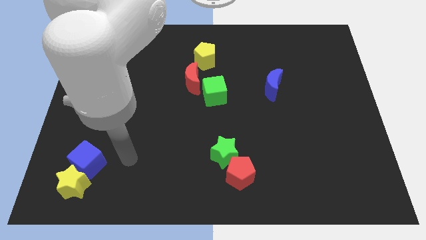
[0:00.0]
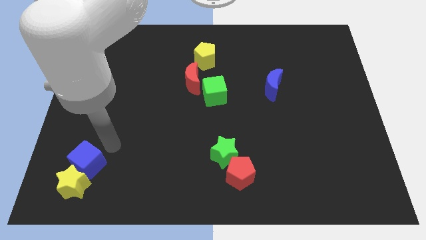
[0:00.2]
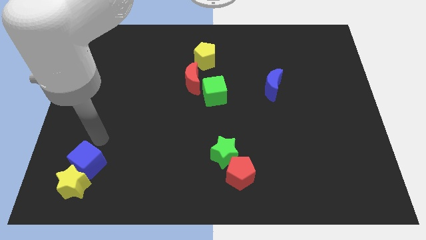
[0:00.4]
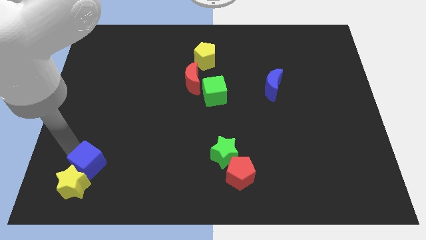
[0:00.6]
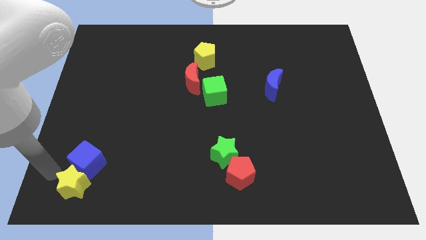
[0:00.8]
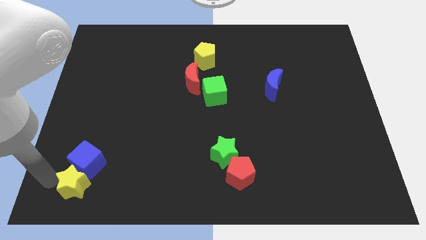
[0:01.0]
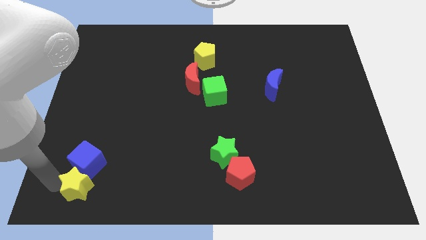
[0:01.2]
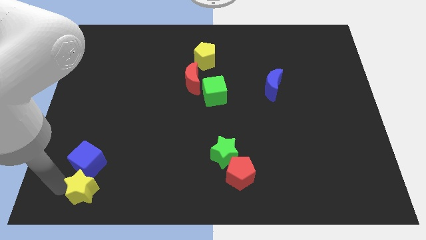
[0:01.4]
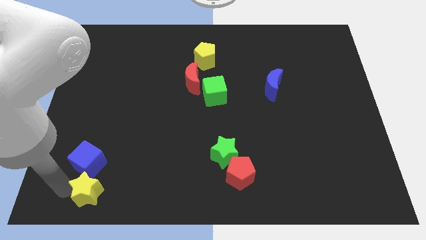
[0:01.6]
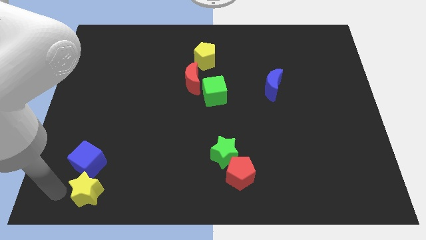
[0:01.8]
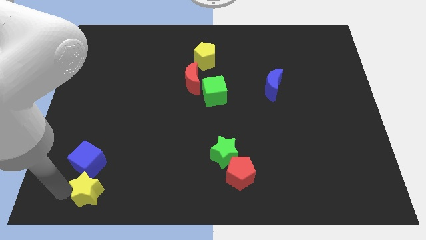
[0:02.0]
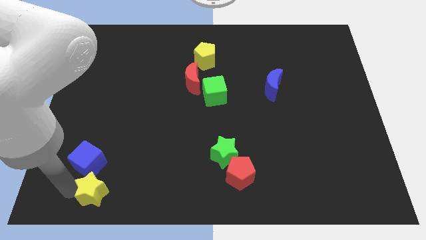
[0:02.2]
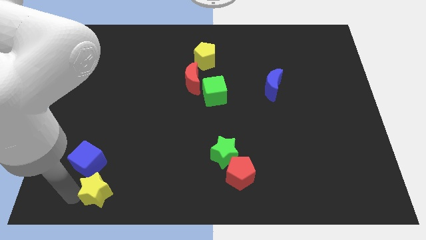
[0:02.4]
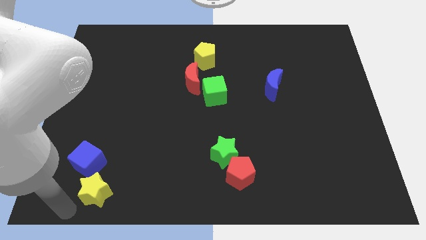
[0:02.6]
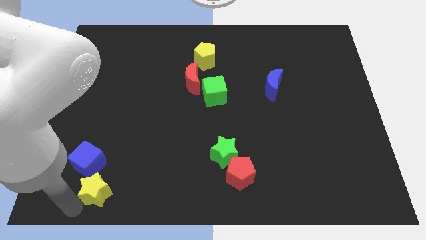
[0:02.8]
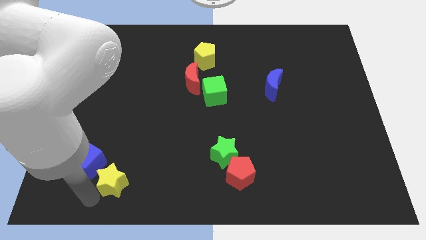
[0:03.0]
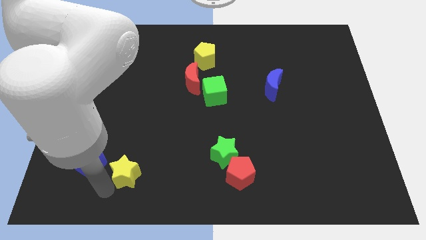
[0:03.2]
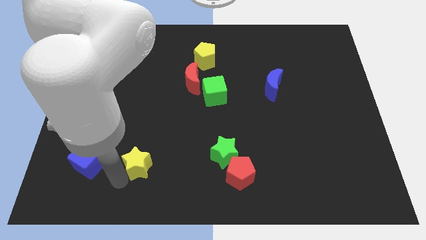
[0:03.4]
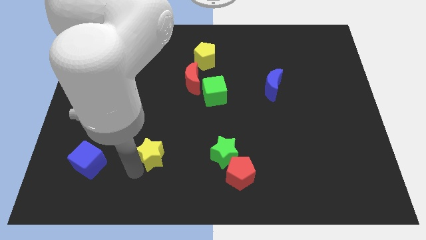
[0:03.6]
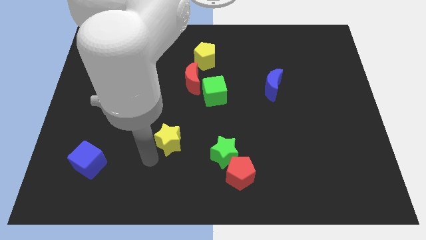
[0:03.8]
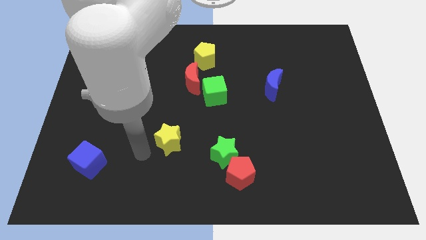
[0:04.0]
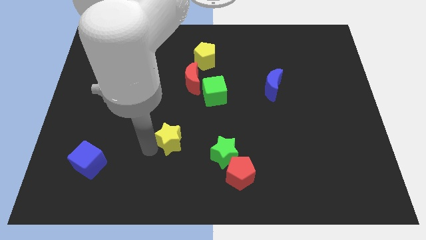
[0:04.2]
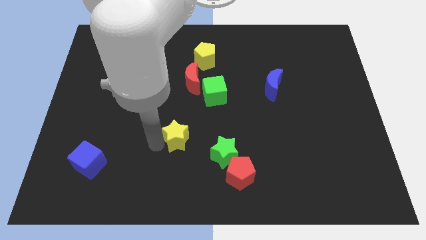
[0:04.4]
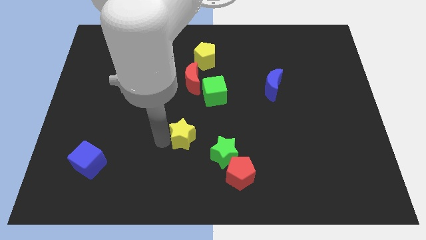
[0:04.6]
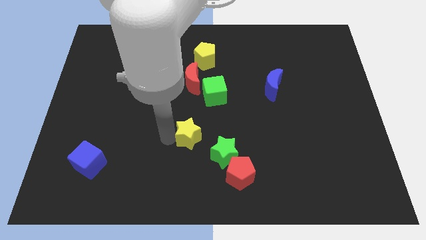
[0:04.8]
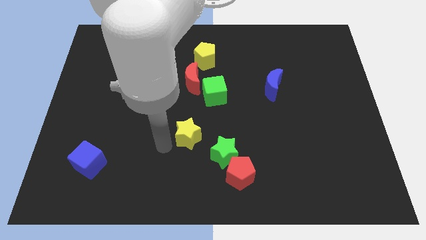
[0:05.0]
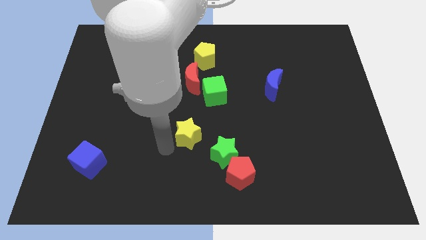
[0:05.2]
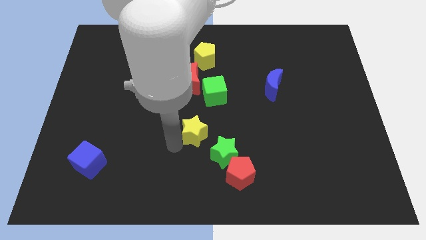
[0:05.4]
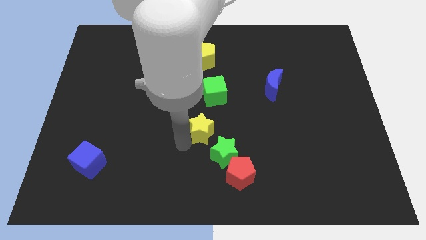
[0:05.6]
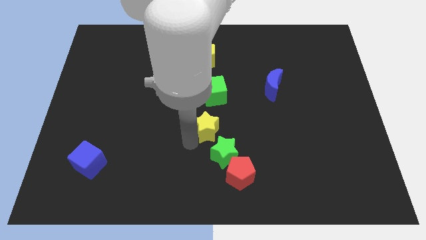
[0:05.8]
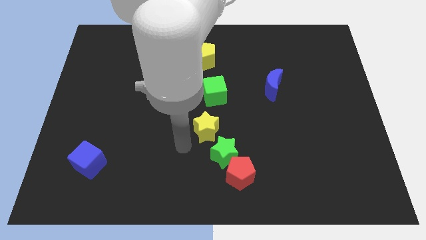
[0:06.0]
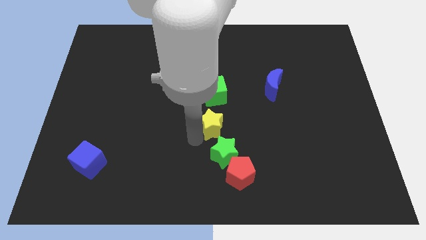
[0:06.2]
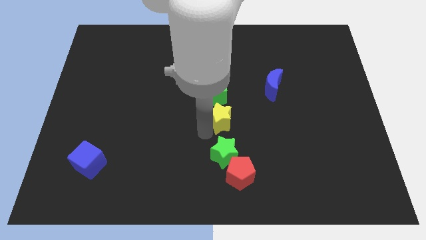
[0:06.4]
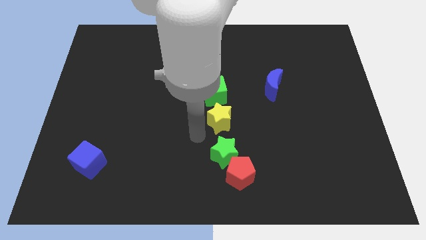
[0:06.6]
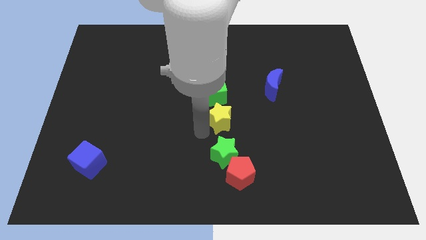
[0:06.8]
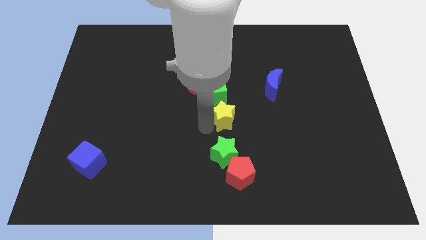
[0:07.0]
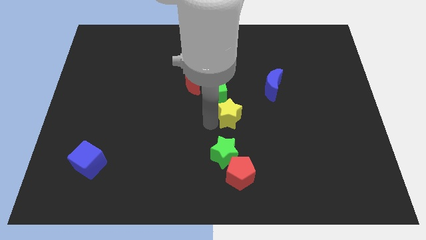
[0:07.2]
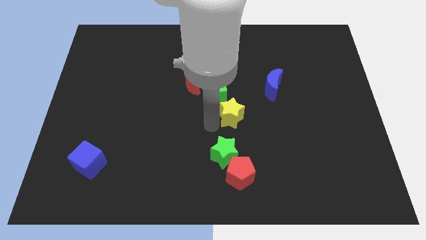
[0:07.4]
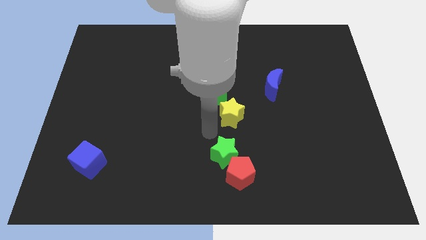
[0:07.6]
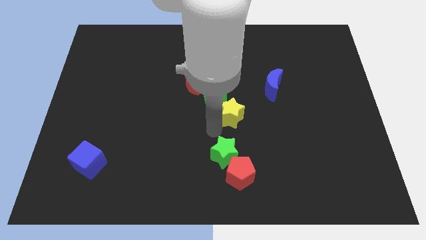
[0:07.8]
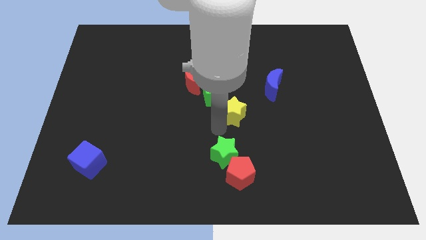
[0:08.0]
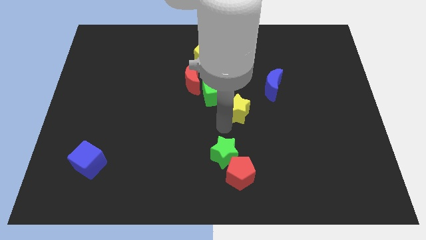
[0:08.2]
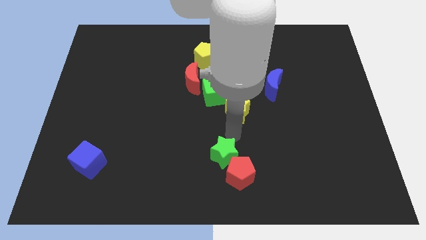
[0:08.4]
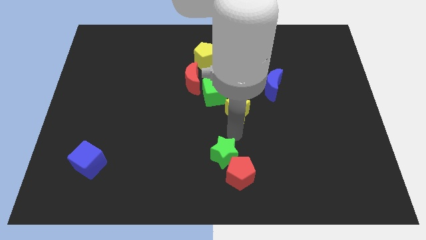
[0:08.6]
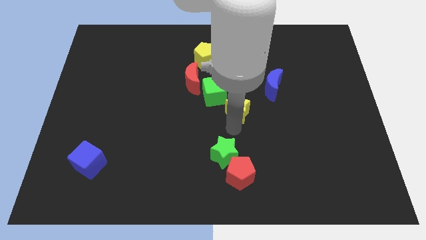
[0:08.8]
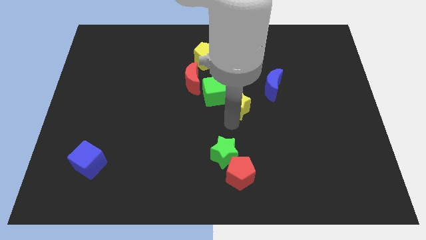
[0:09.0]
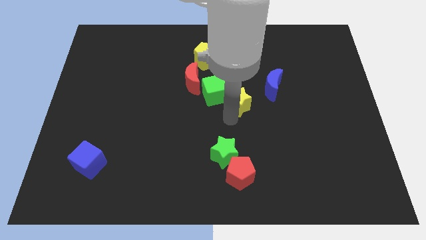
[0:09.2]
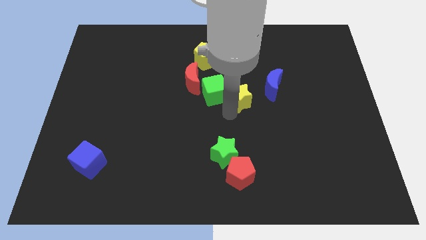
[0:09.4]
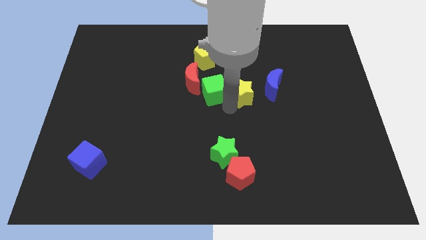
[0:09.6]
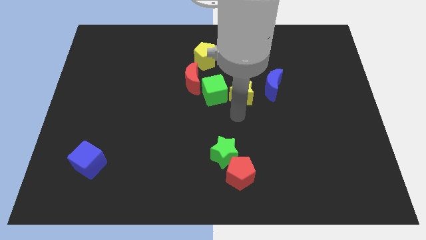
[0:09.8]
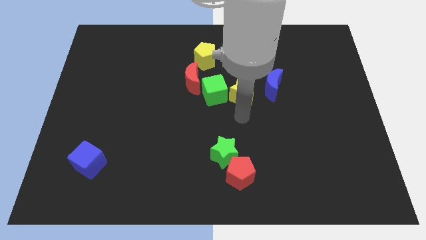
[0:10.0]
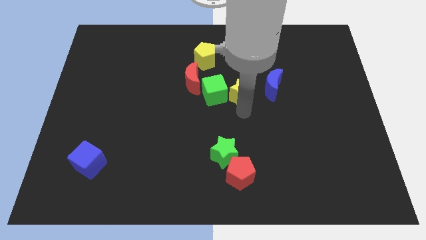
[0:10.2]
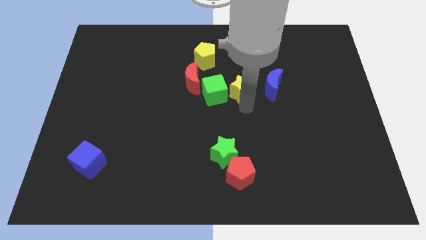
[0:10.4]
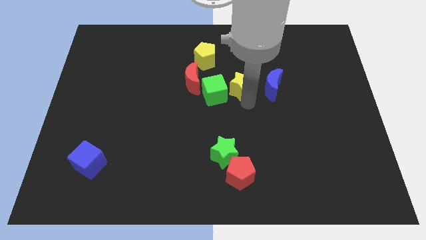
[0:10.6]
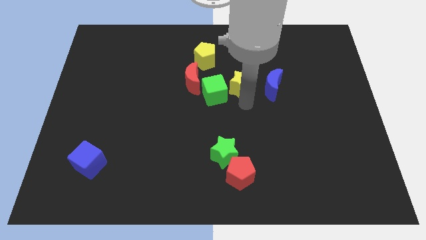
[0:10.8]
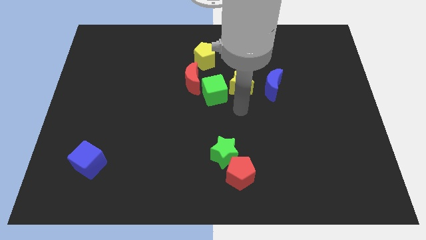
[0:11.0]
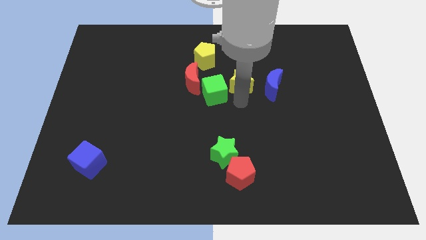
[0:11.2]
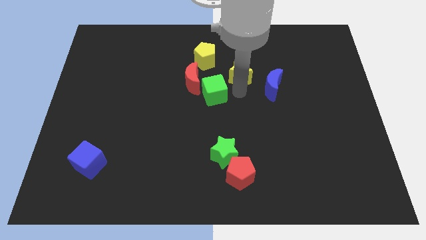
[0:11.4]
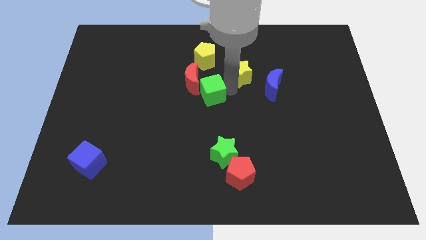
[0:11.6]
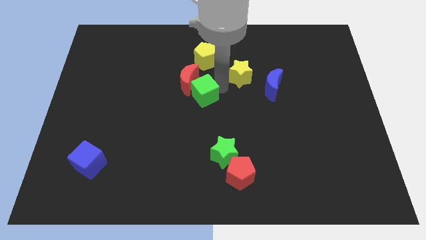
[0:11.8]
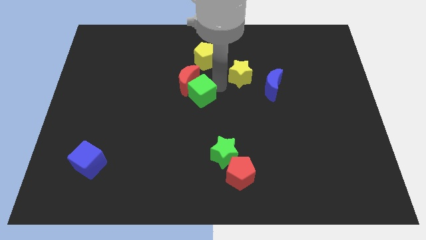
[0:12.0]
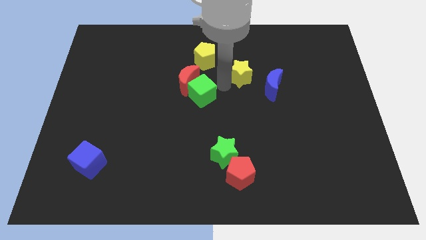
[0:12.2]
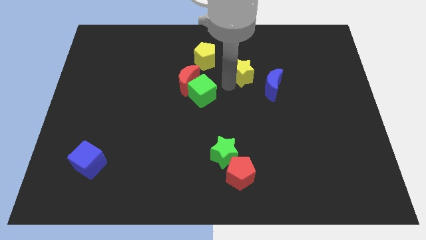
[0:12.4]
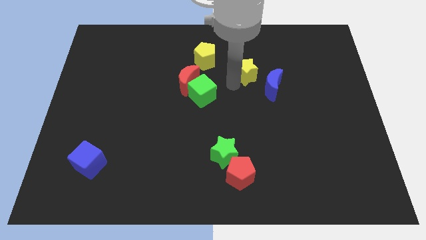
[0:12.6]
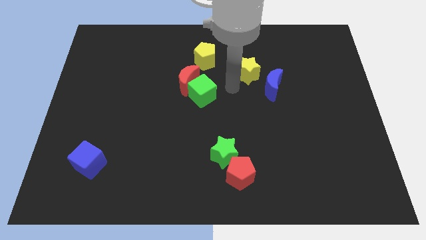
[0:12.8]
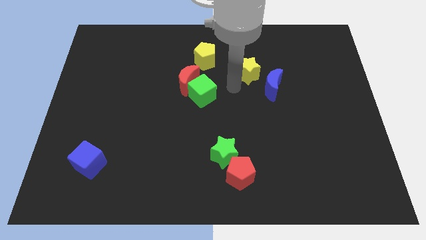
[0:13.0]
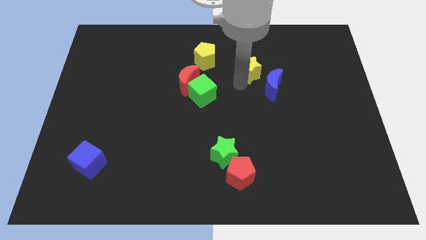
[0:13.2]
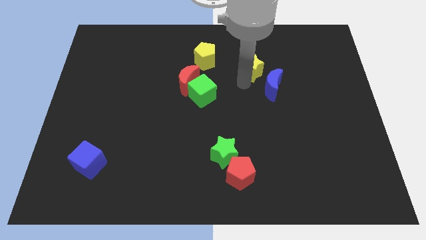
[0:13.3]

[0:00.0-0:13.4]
put the yellow star above the blue moon
